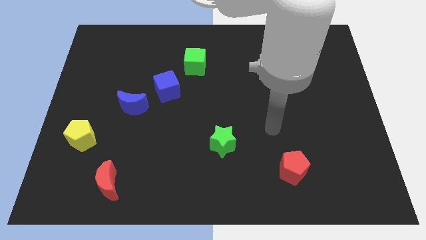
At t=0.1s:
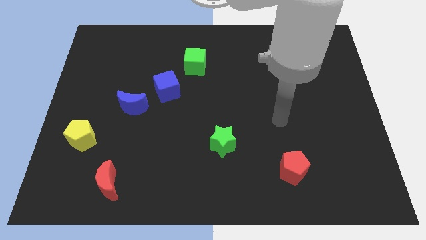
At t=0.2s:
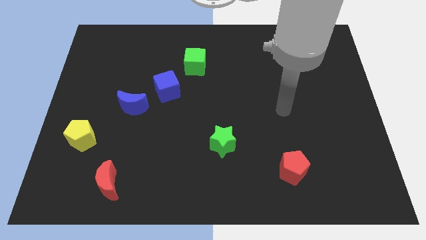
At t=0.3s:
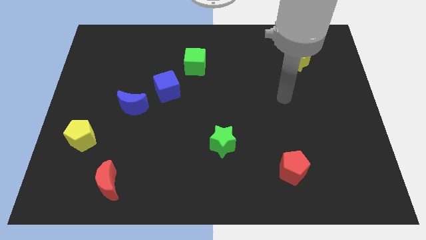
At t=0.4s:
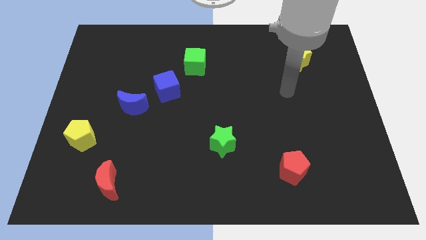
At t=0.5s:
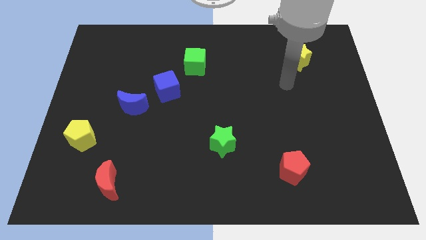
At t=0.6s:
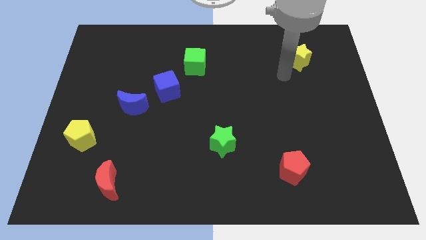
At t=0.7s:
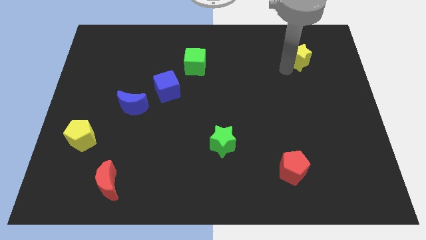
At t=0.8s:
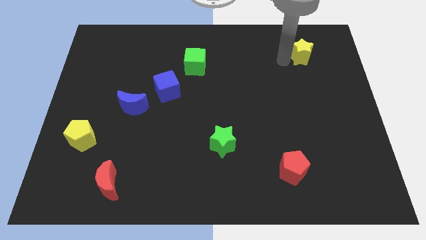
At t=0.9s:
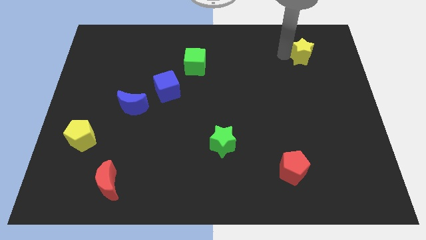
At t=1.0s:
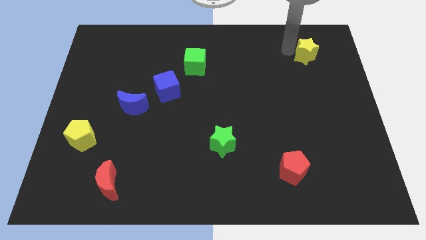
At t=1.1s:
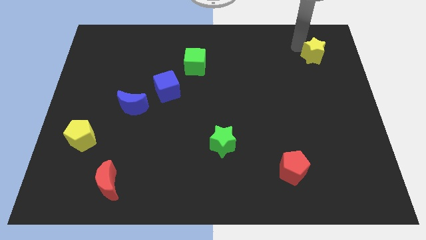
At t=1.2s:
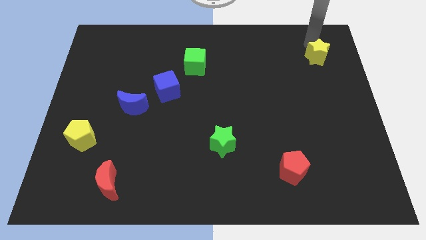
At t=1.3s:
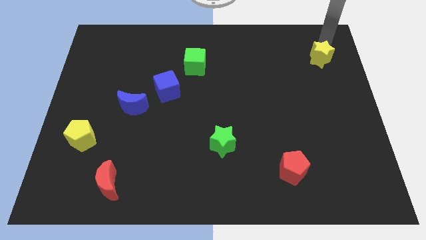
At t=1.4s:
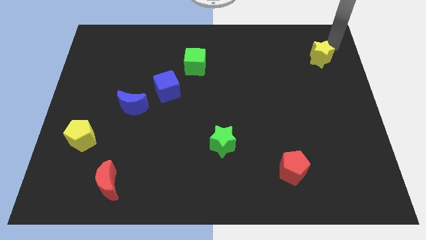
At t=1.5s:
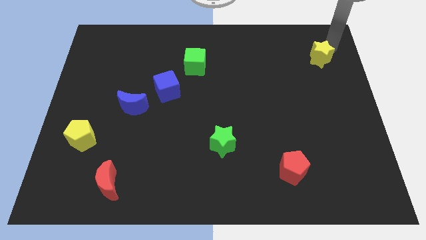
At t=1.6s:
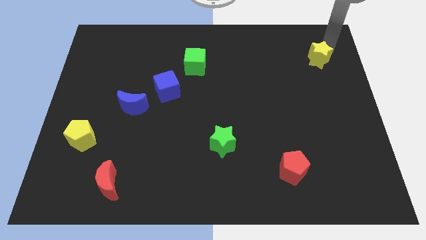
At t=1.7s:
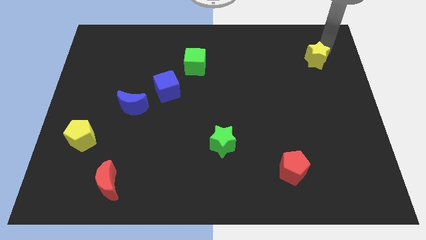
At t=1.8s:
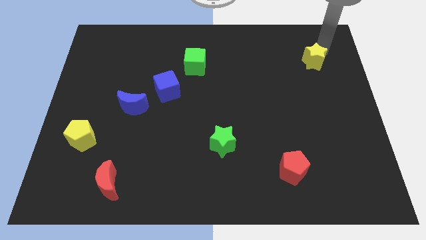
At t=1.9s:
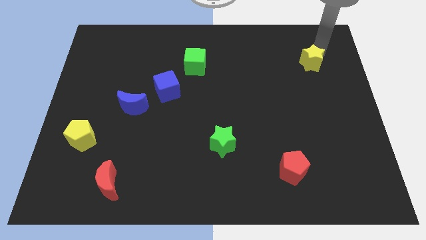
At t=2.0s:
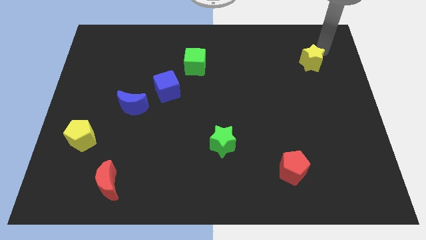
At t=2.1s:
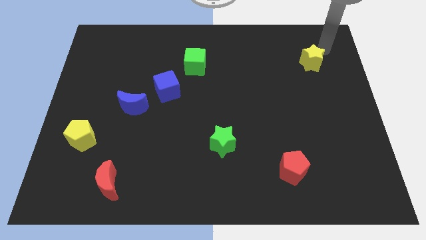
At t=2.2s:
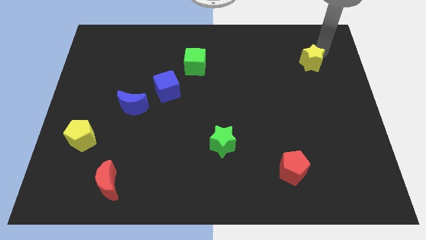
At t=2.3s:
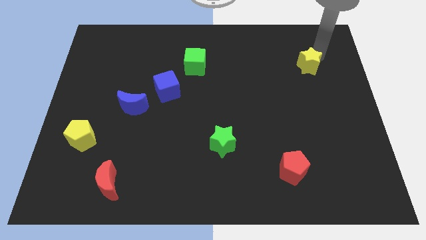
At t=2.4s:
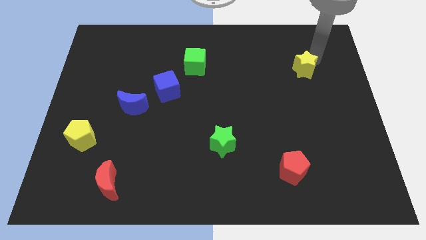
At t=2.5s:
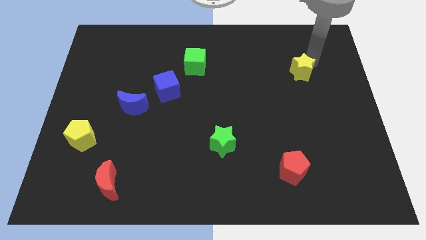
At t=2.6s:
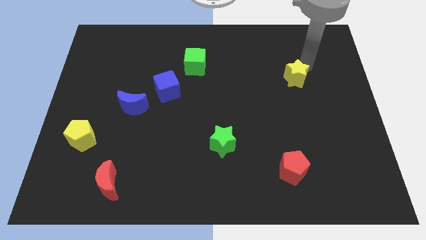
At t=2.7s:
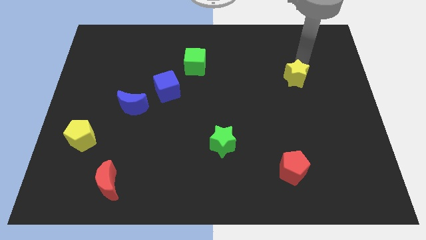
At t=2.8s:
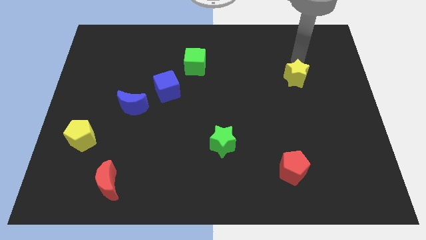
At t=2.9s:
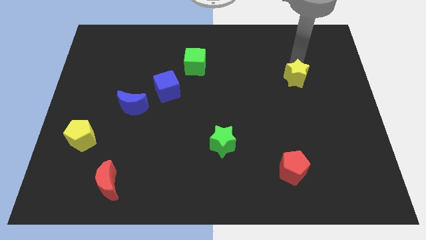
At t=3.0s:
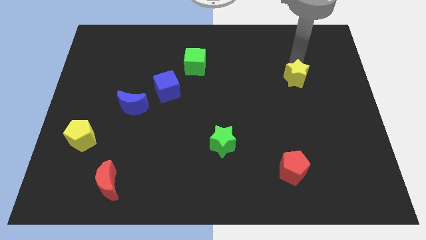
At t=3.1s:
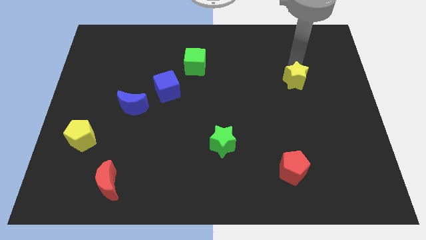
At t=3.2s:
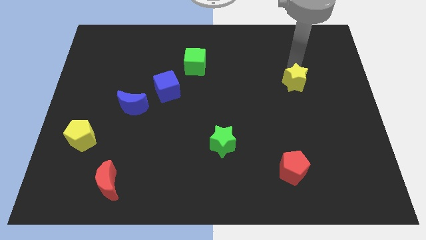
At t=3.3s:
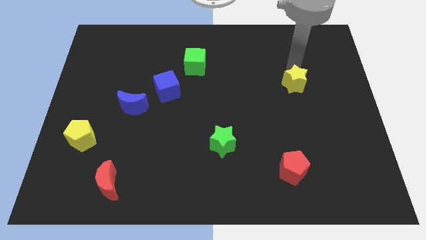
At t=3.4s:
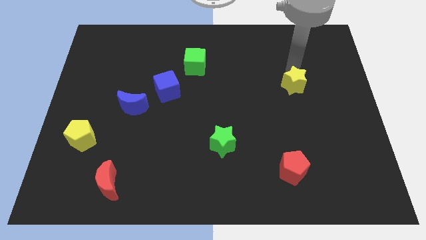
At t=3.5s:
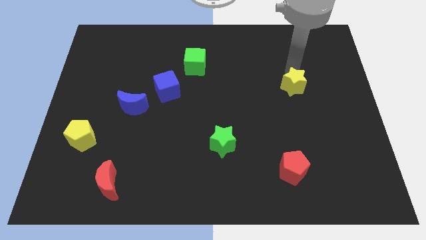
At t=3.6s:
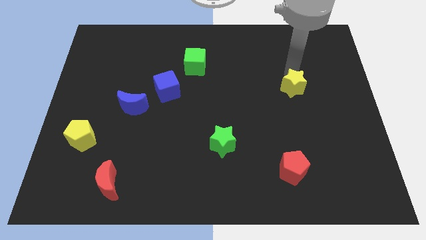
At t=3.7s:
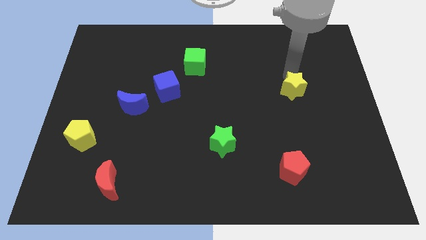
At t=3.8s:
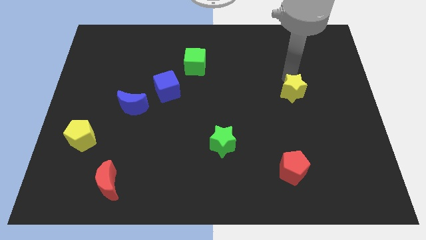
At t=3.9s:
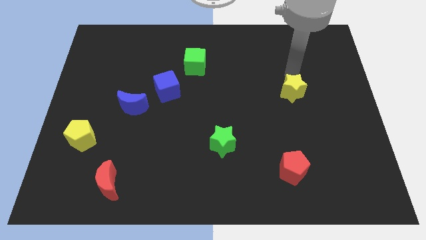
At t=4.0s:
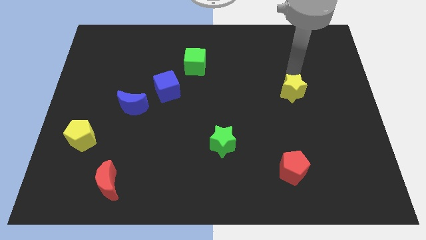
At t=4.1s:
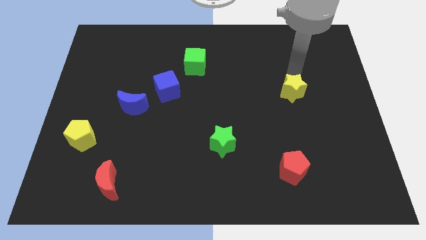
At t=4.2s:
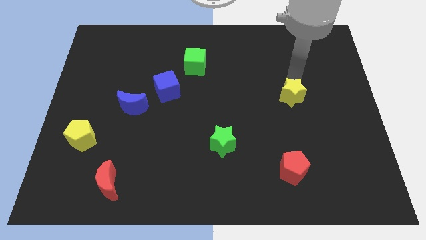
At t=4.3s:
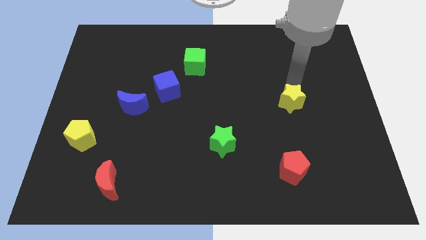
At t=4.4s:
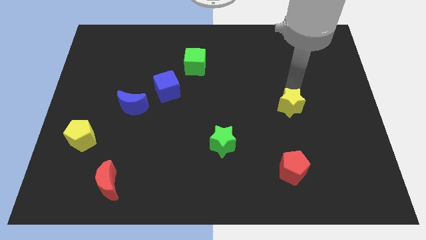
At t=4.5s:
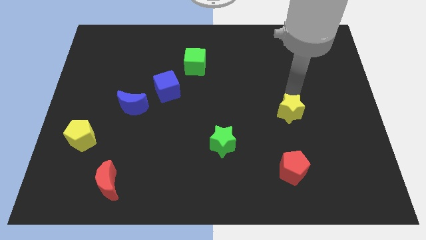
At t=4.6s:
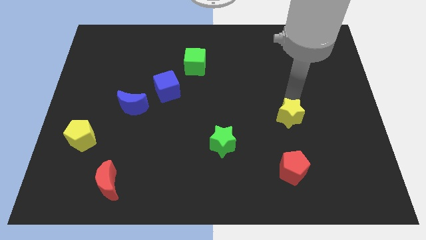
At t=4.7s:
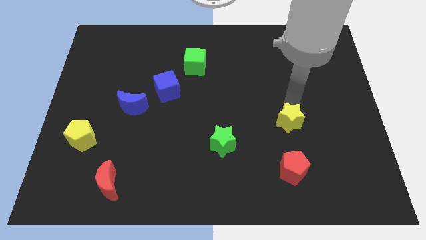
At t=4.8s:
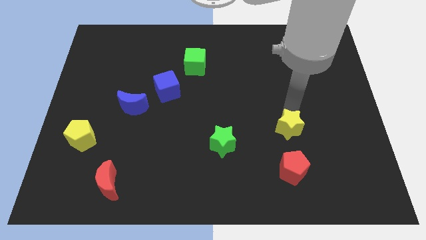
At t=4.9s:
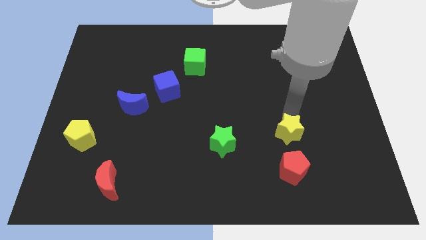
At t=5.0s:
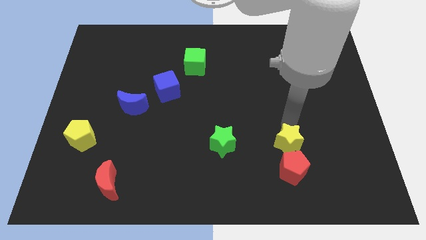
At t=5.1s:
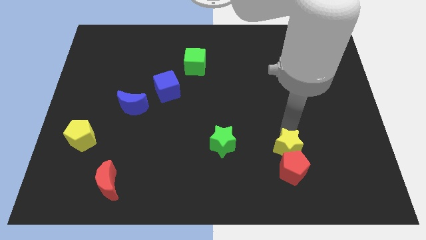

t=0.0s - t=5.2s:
slide the yellow star close to the red pentagon

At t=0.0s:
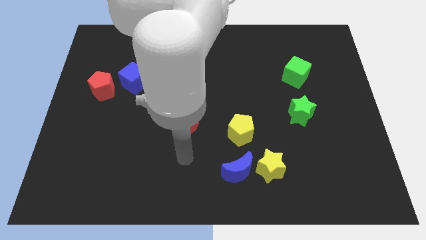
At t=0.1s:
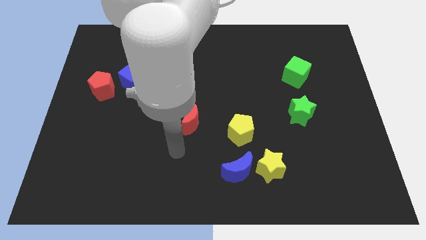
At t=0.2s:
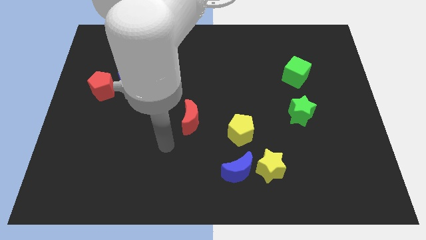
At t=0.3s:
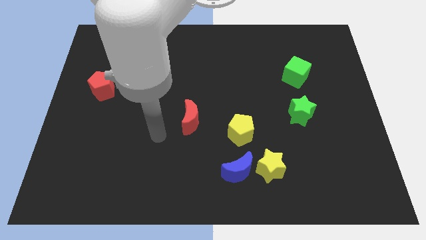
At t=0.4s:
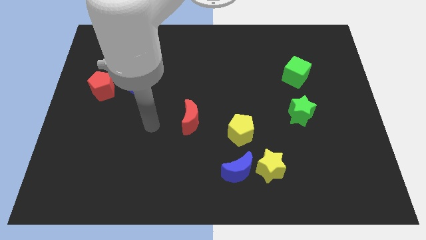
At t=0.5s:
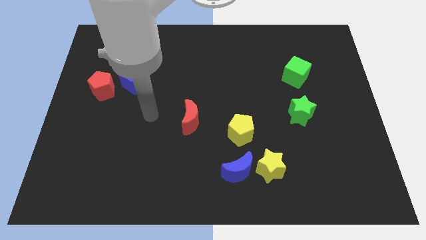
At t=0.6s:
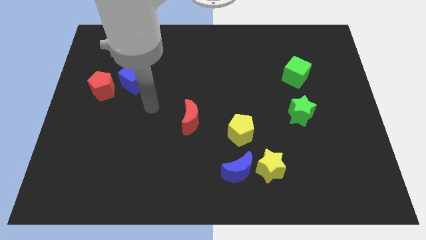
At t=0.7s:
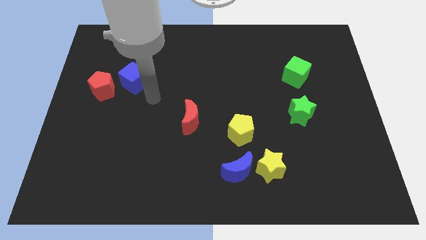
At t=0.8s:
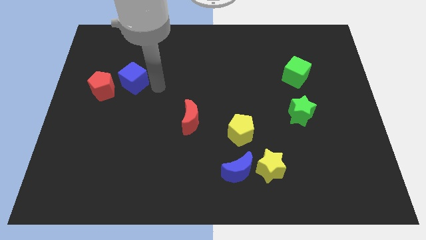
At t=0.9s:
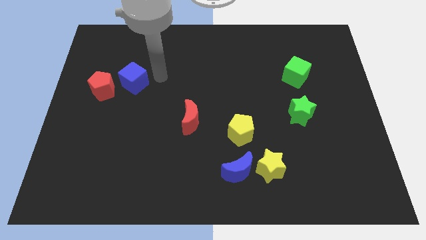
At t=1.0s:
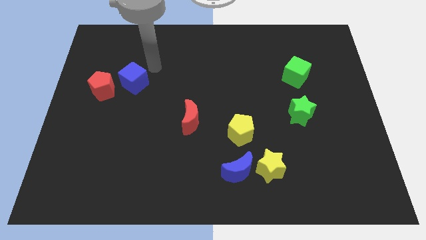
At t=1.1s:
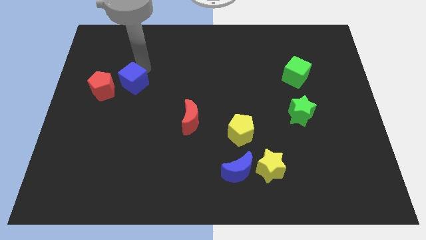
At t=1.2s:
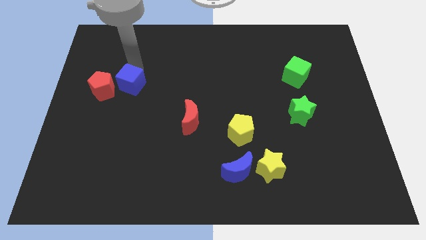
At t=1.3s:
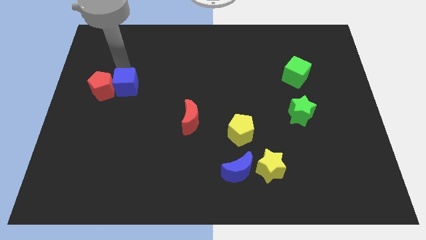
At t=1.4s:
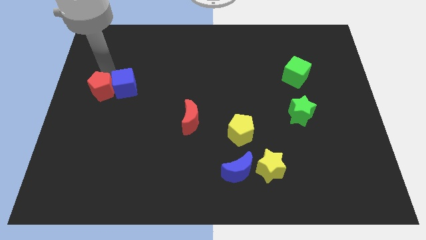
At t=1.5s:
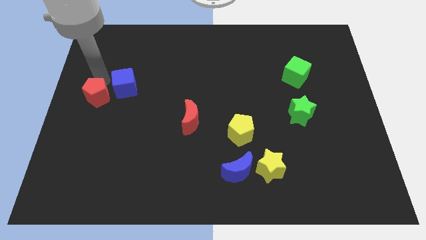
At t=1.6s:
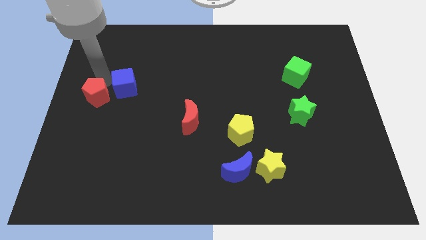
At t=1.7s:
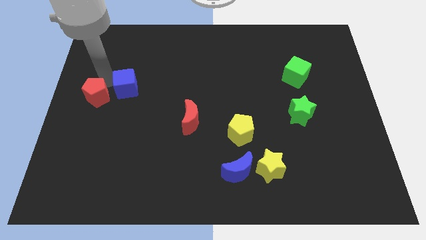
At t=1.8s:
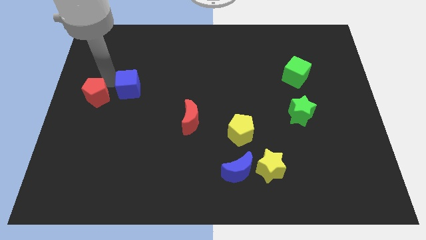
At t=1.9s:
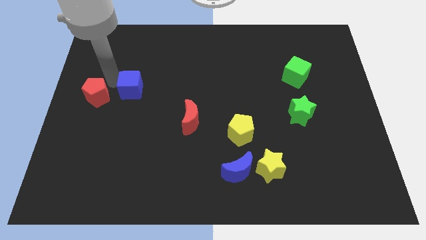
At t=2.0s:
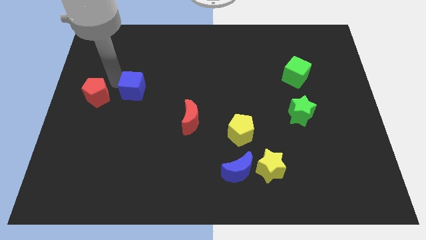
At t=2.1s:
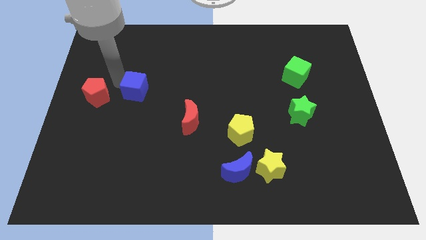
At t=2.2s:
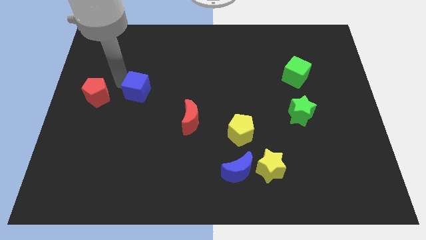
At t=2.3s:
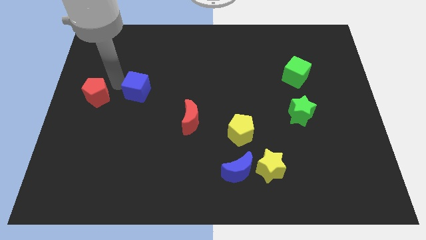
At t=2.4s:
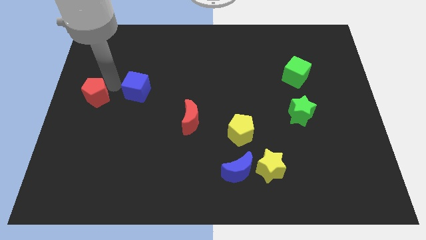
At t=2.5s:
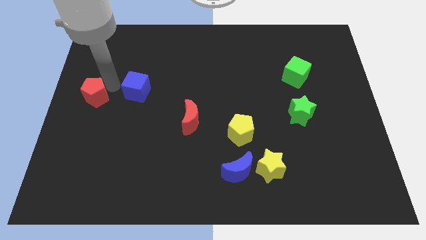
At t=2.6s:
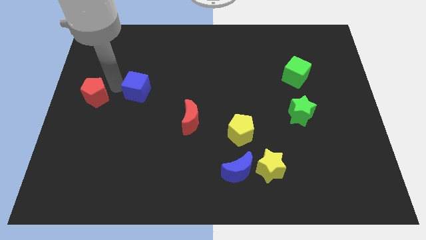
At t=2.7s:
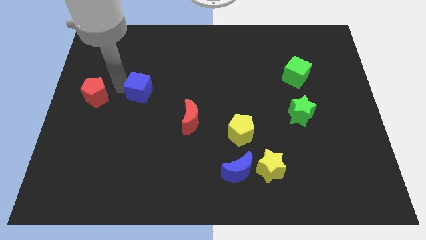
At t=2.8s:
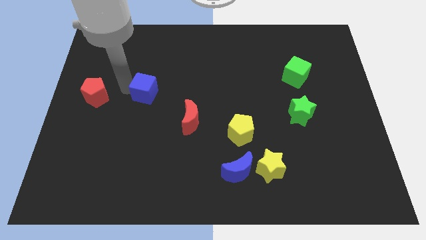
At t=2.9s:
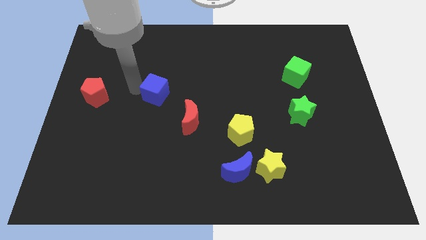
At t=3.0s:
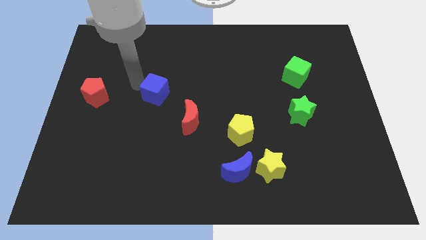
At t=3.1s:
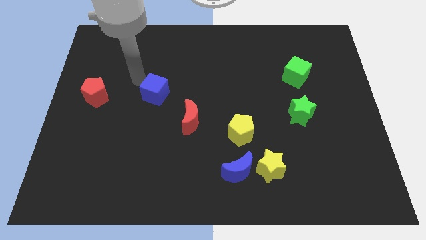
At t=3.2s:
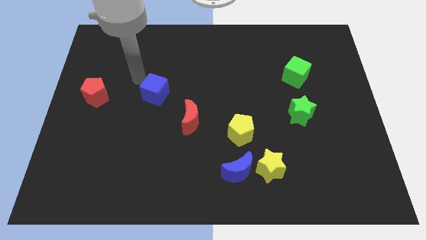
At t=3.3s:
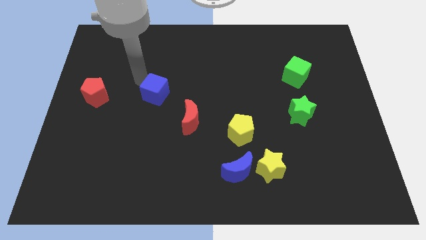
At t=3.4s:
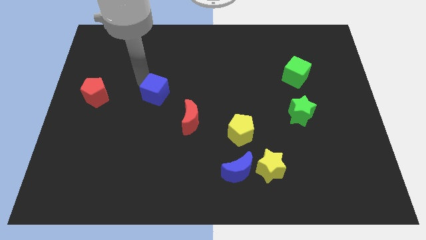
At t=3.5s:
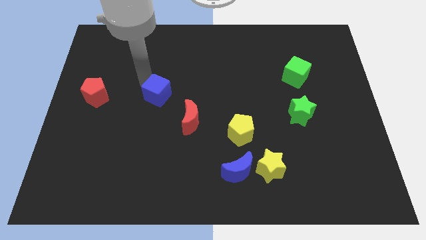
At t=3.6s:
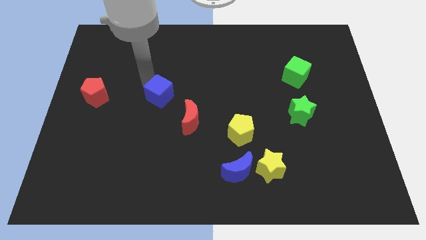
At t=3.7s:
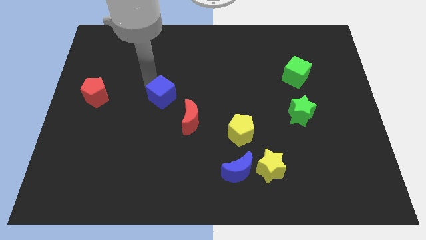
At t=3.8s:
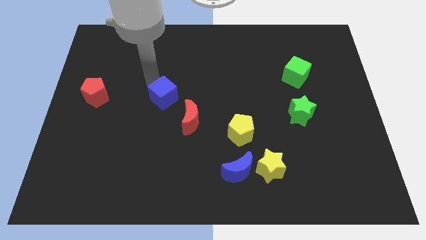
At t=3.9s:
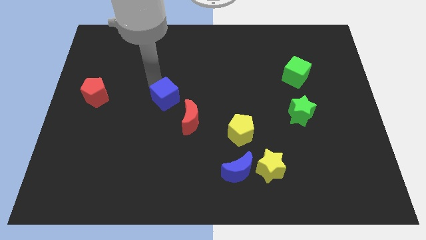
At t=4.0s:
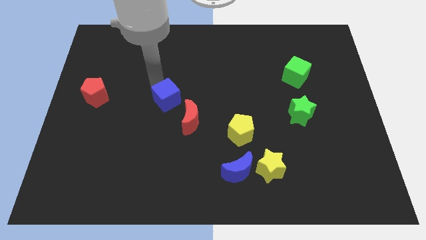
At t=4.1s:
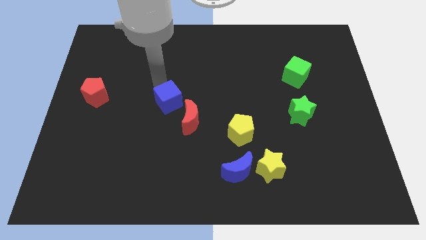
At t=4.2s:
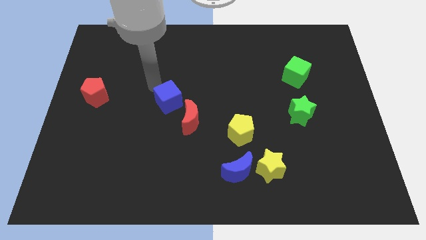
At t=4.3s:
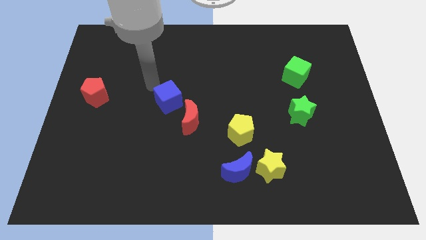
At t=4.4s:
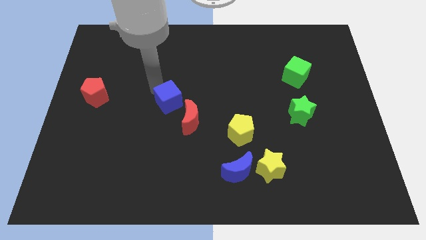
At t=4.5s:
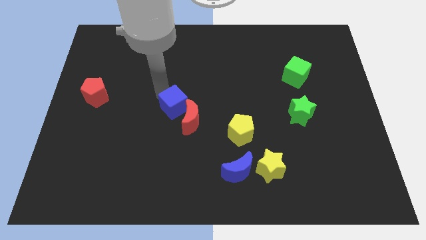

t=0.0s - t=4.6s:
move the blue cube next to the red moon
